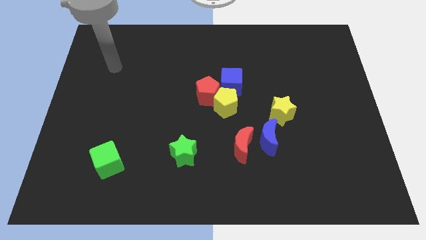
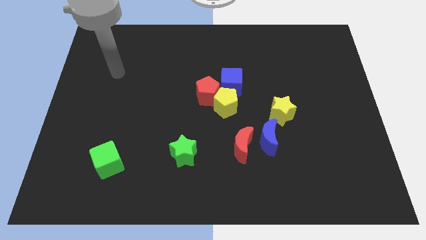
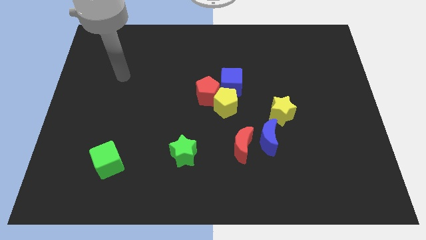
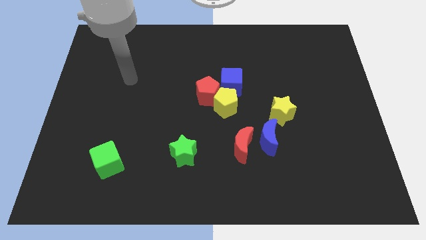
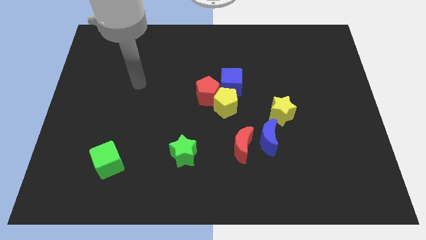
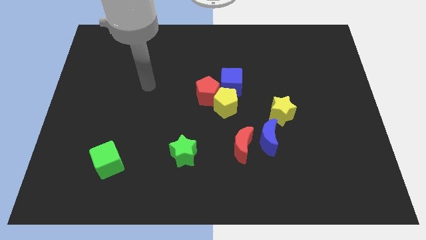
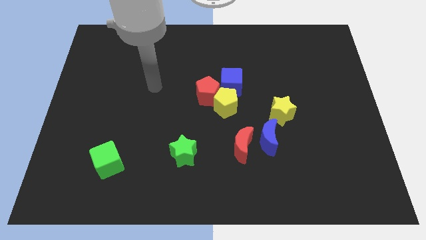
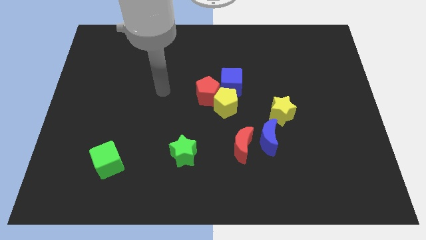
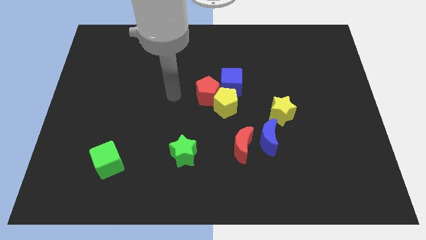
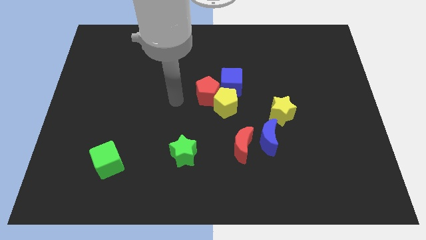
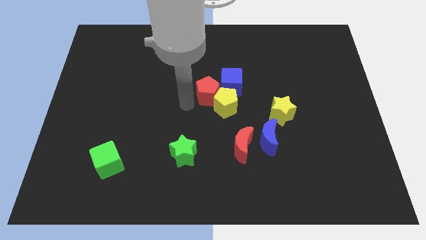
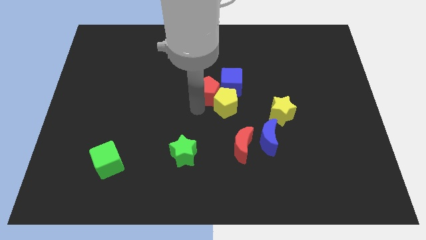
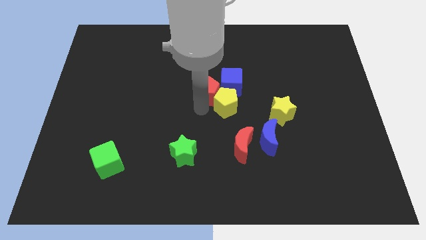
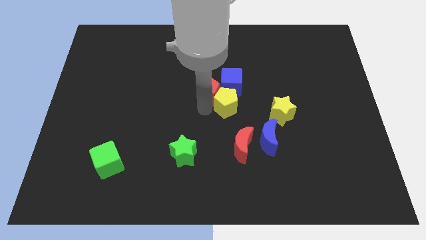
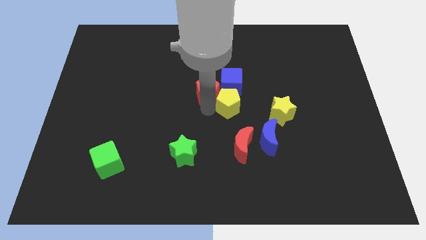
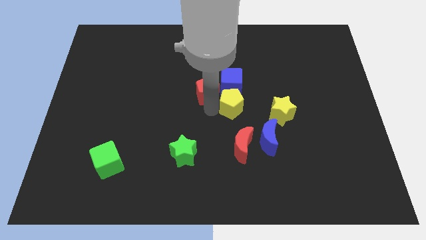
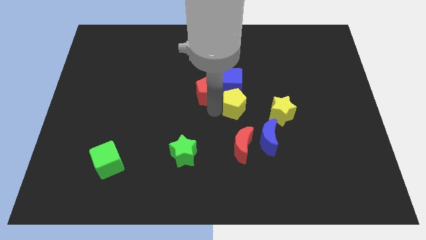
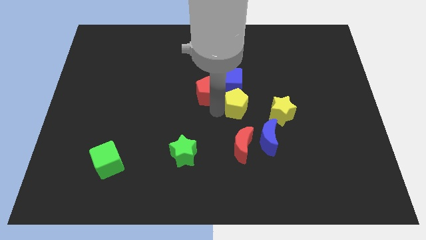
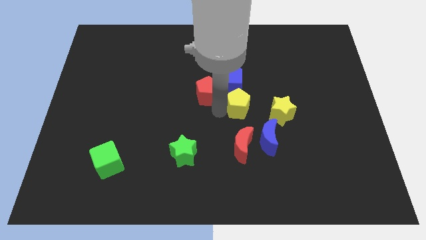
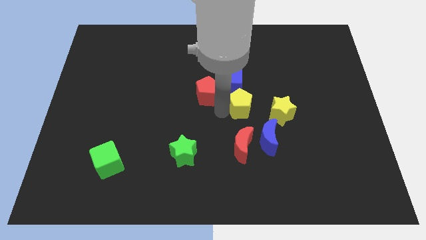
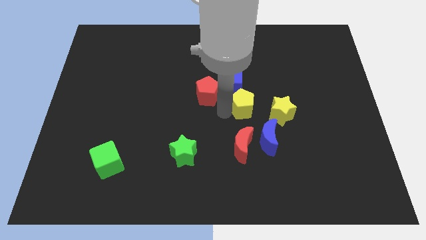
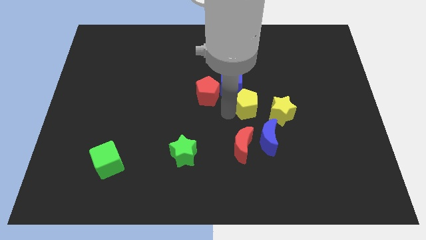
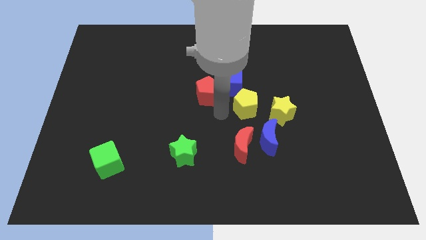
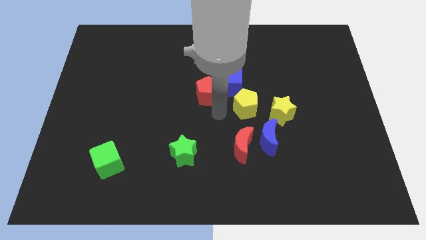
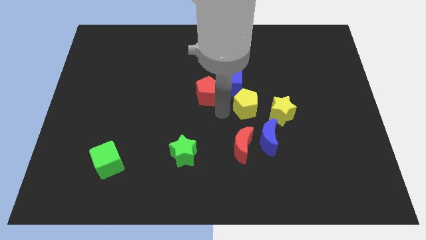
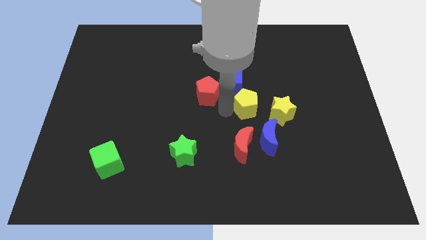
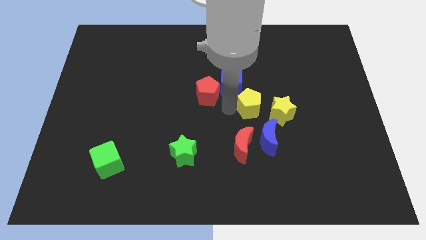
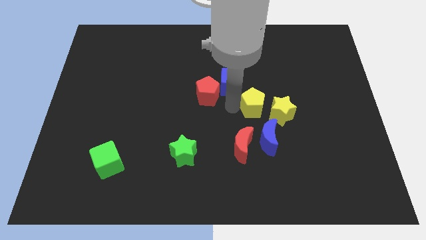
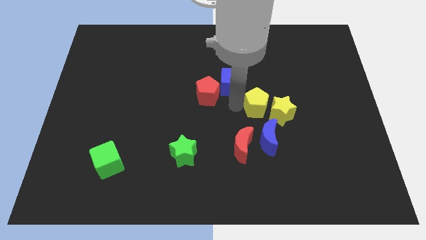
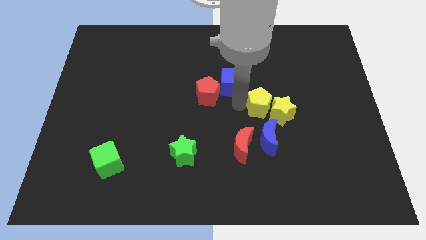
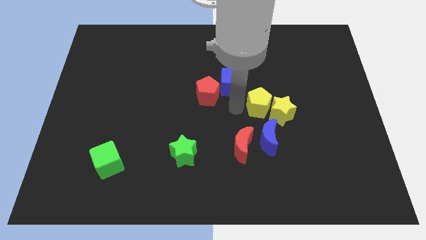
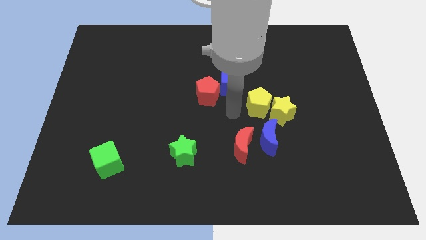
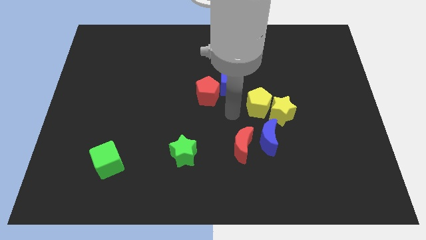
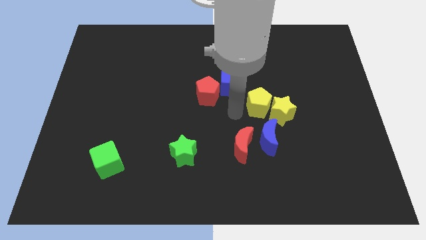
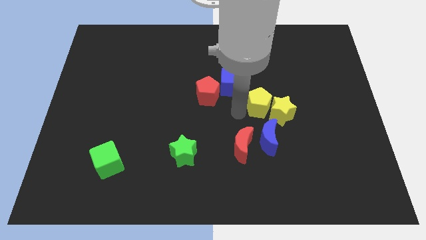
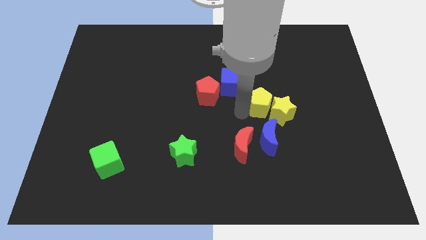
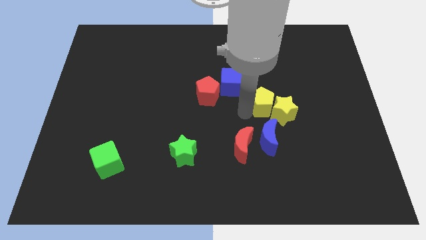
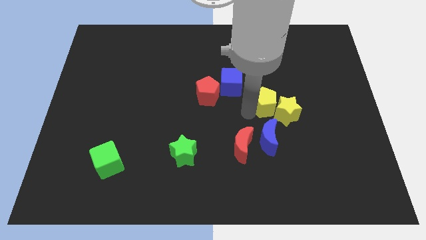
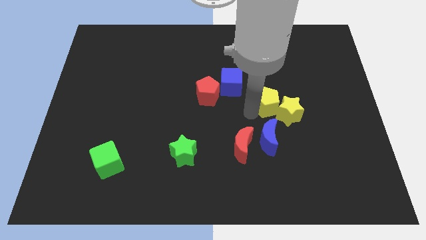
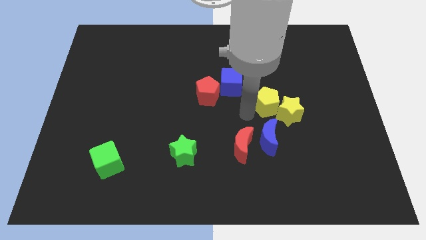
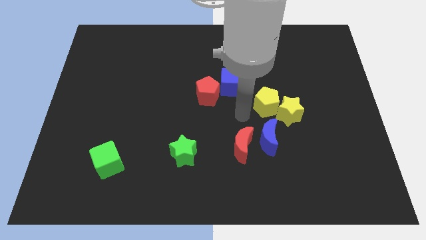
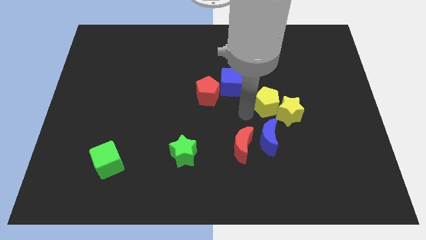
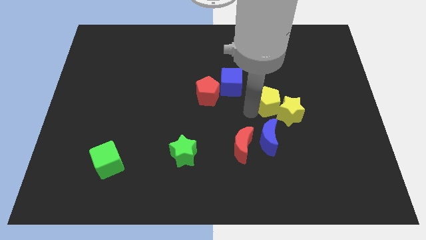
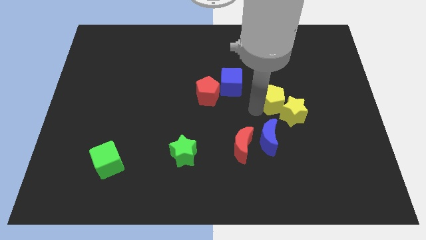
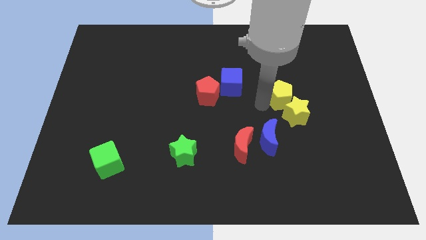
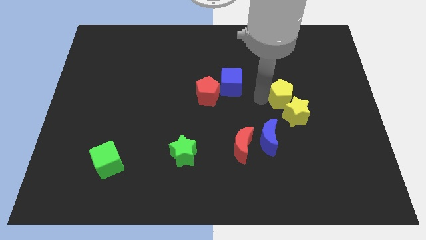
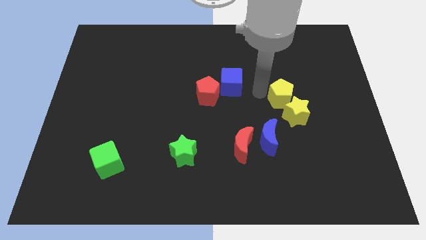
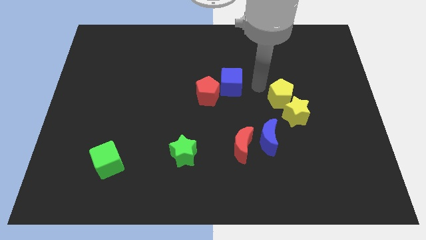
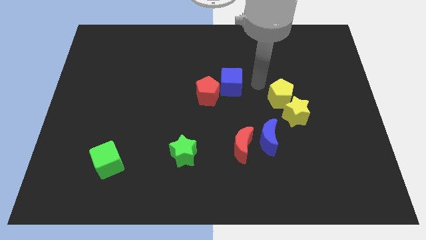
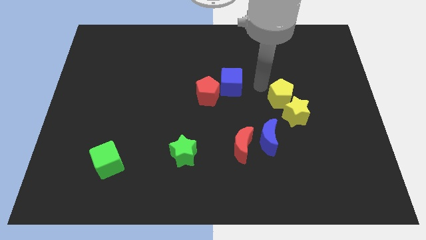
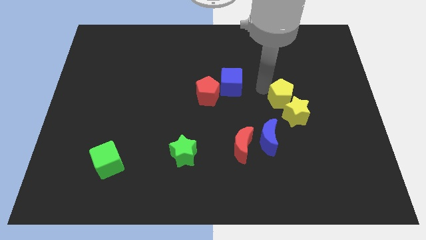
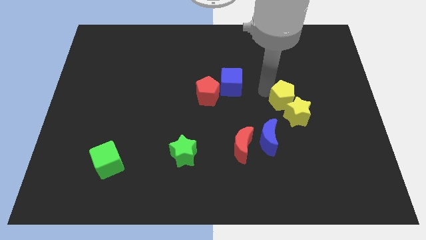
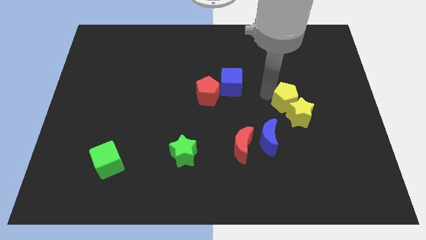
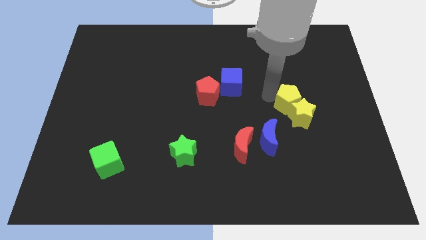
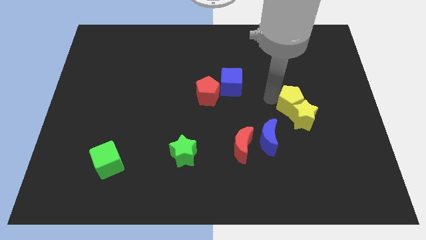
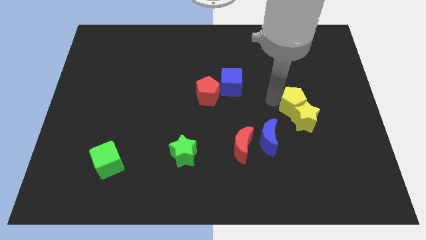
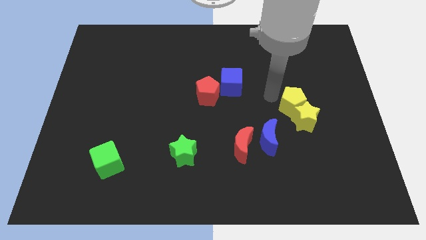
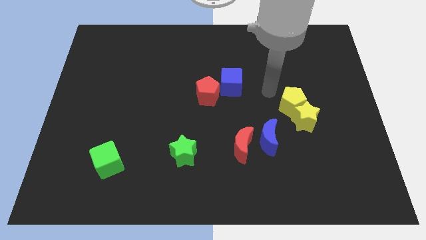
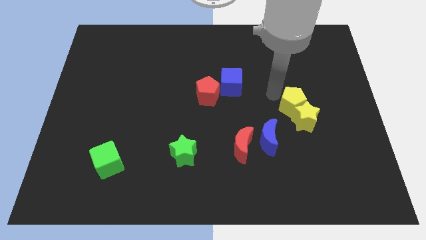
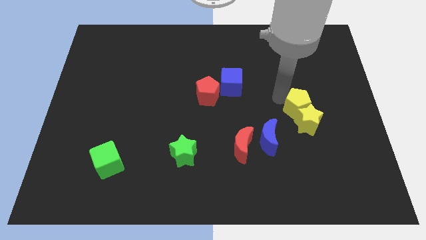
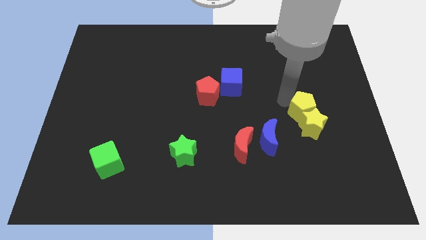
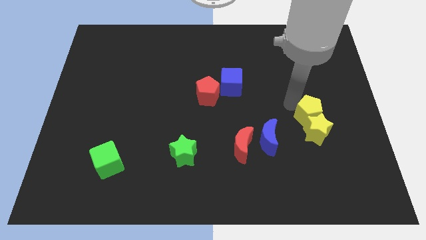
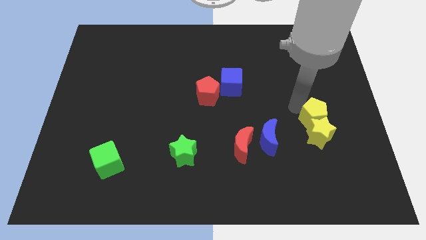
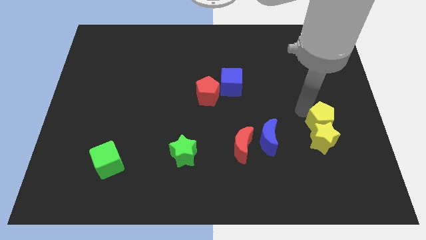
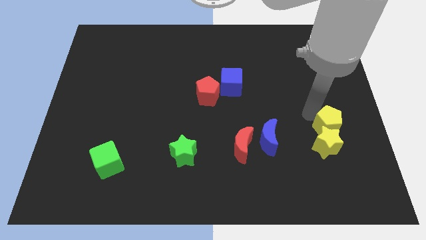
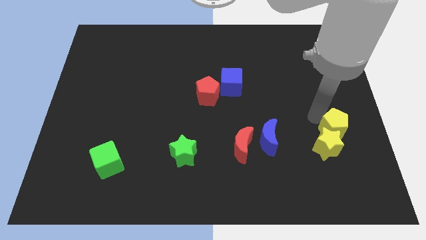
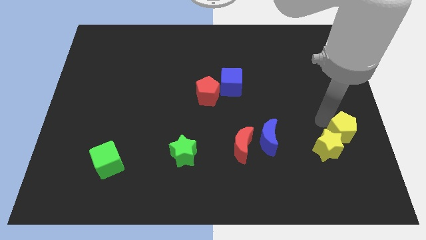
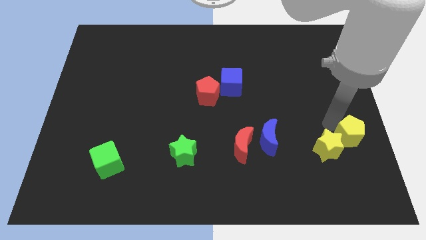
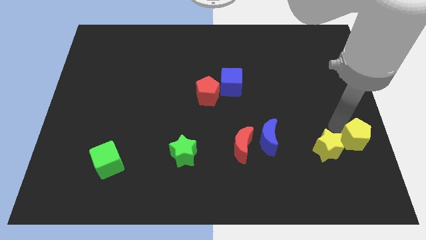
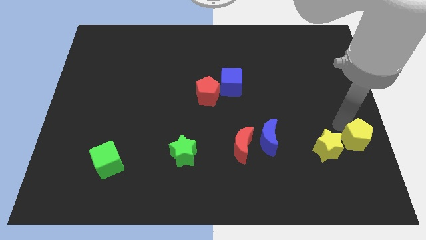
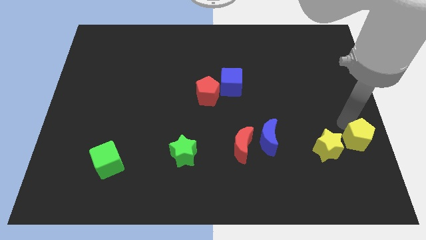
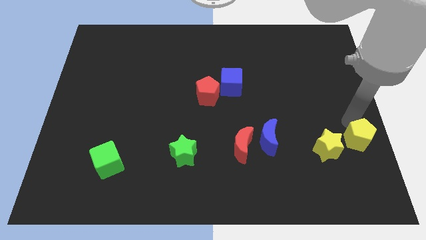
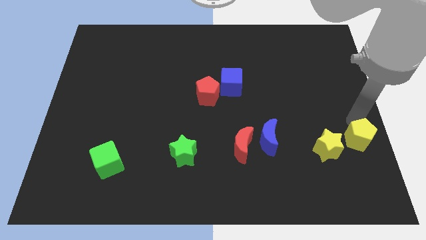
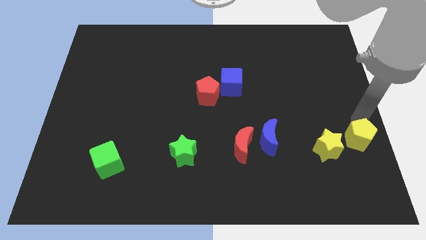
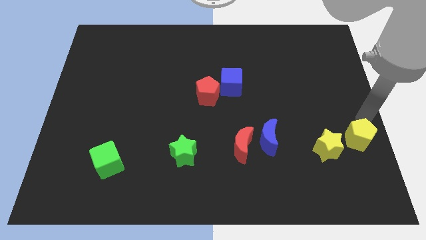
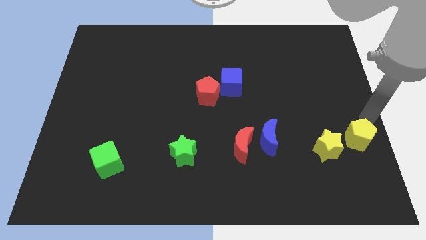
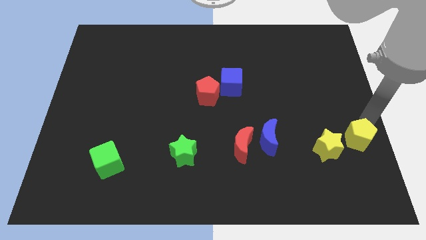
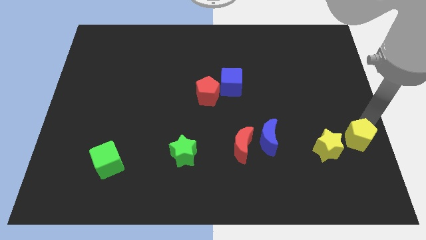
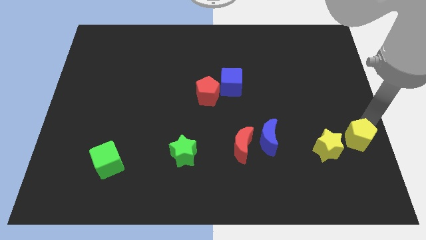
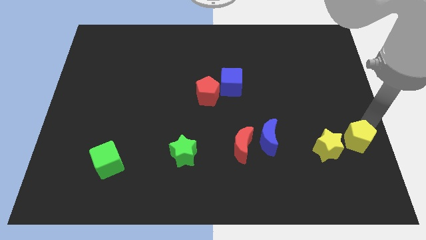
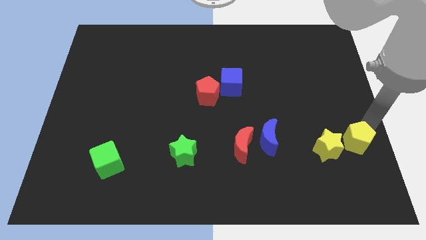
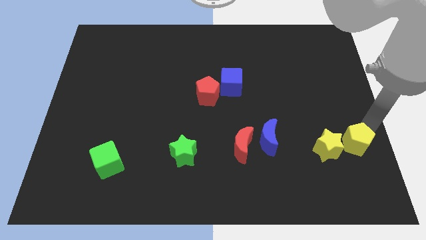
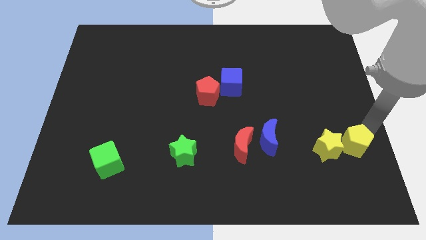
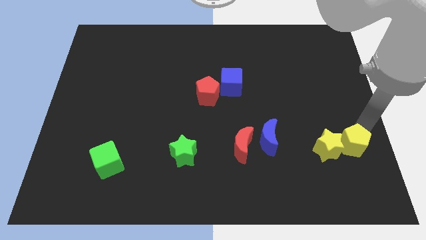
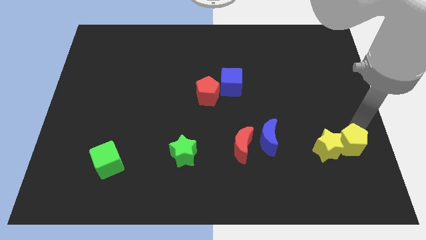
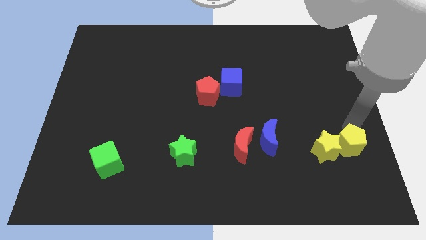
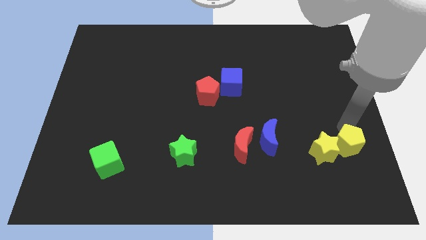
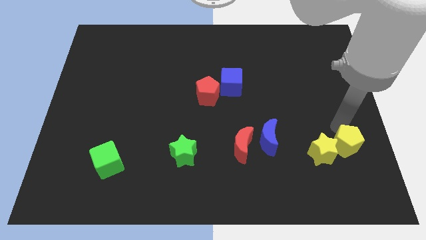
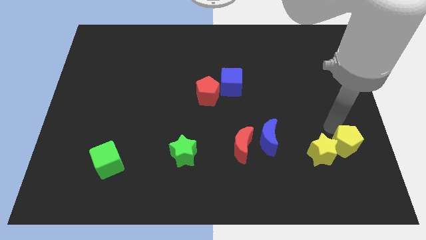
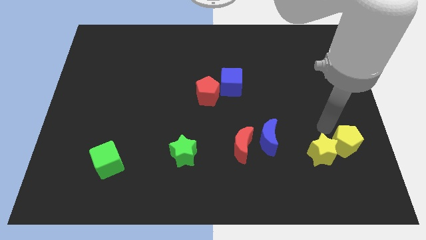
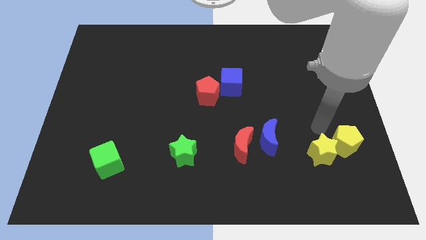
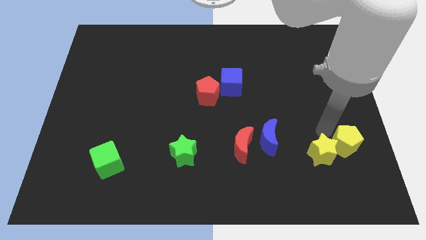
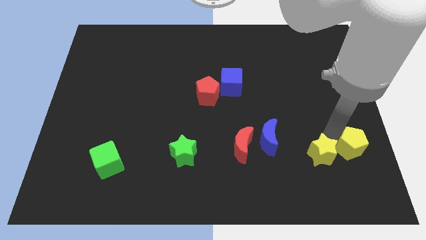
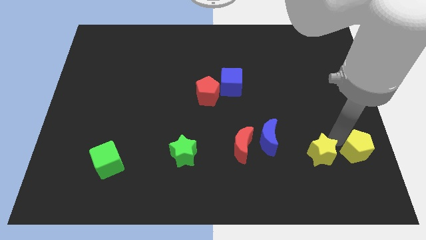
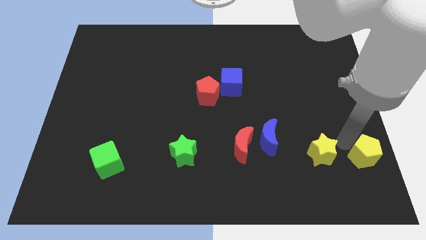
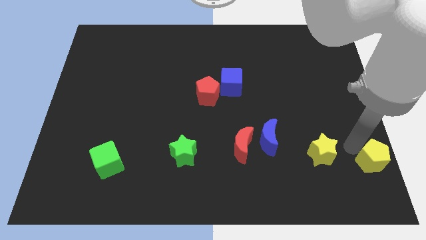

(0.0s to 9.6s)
slide the yellow pentagon to the bottom right of the board
